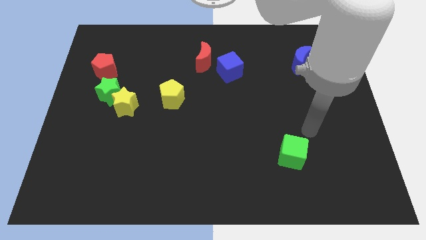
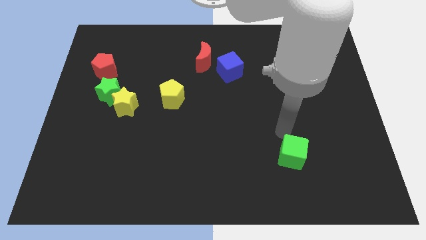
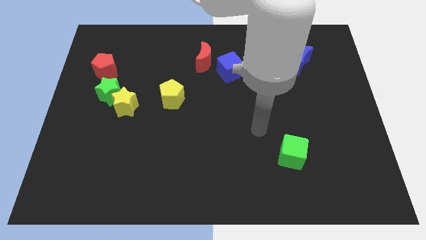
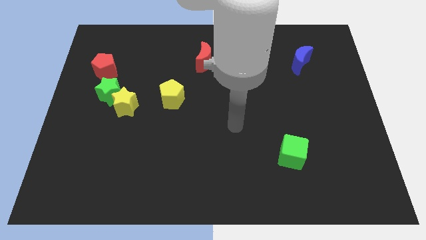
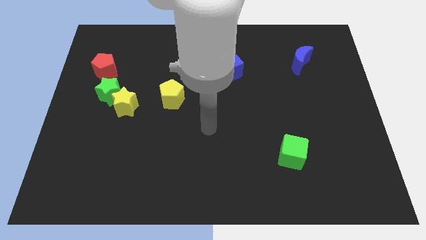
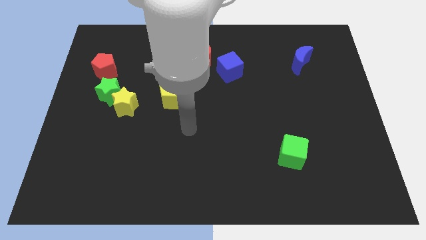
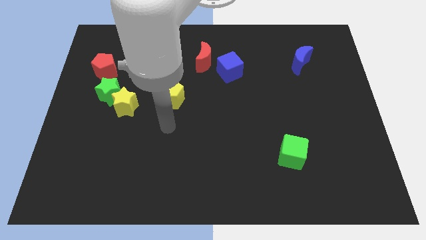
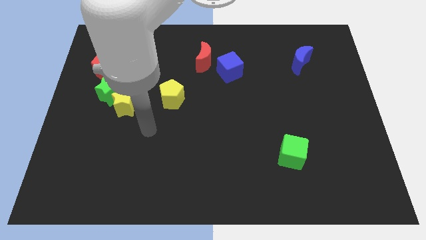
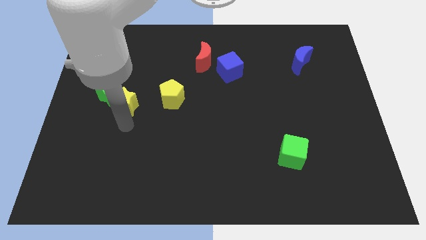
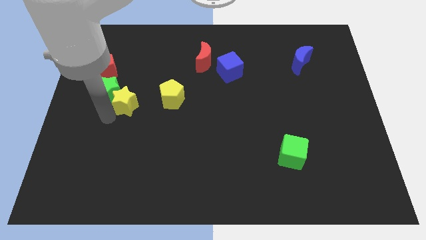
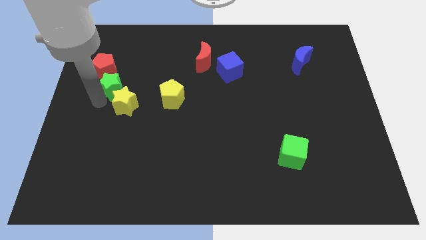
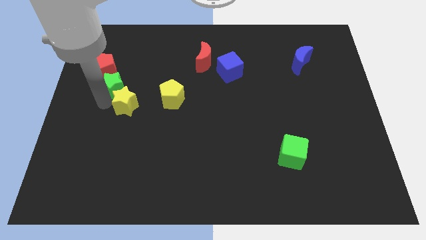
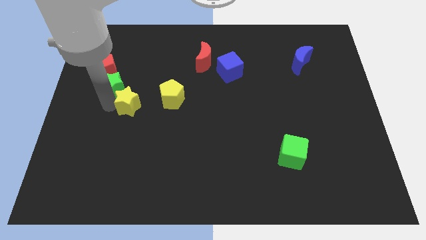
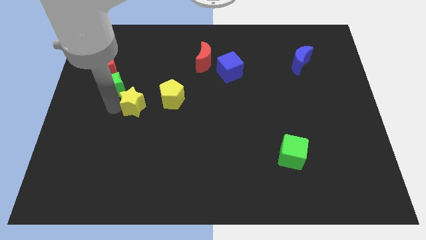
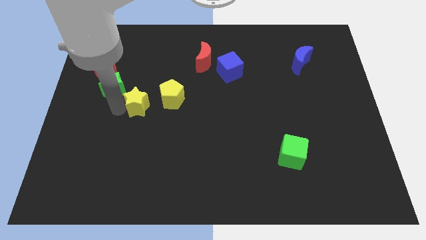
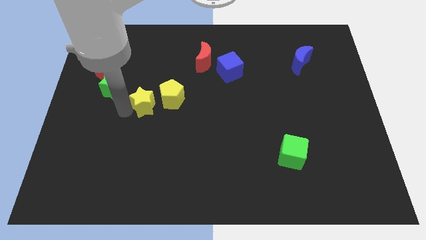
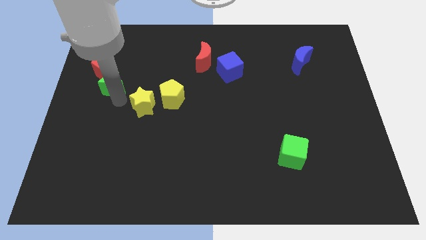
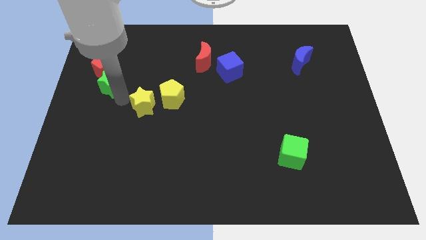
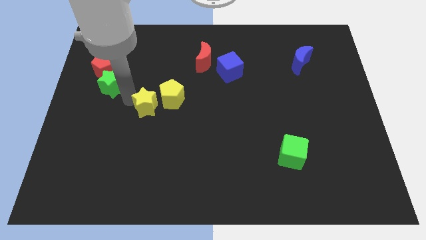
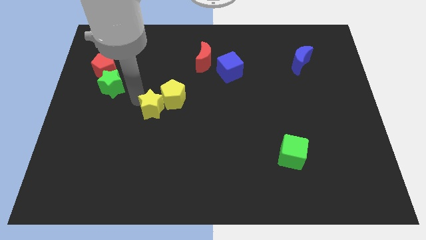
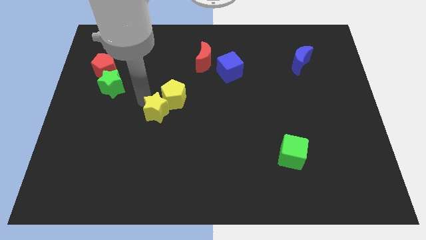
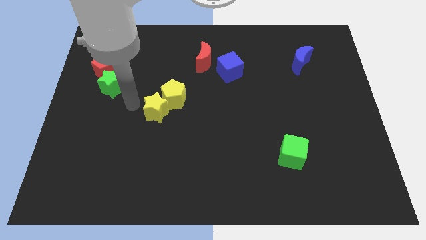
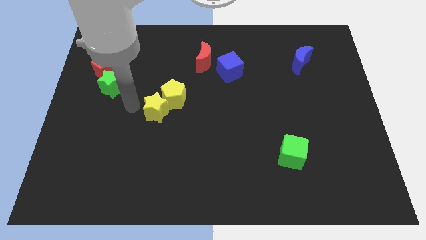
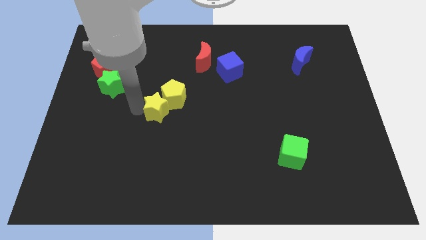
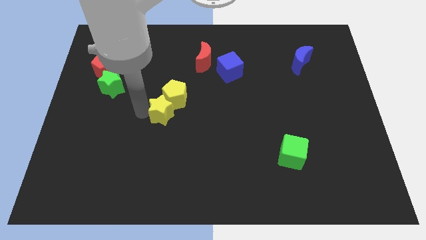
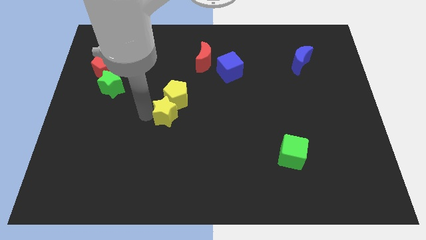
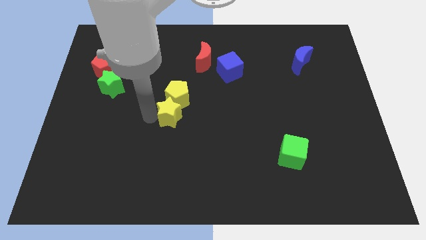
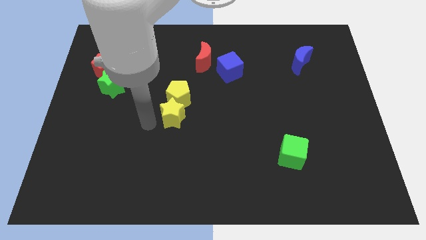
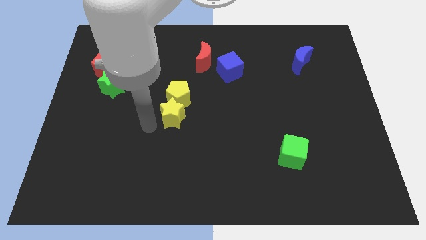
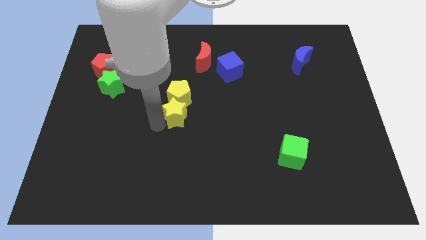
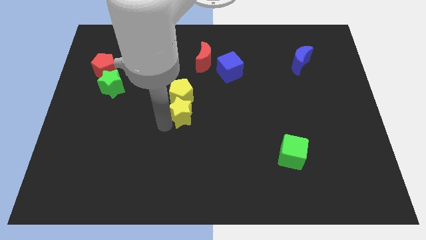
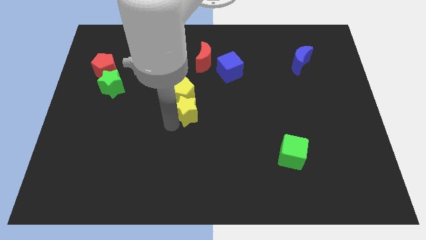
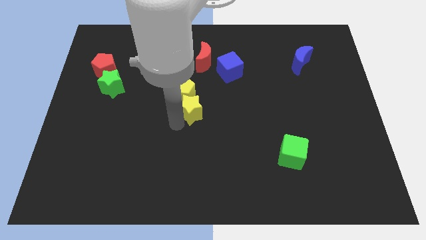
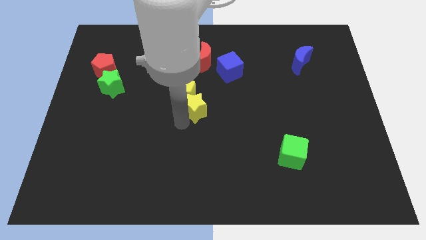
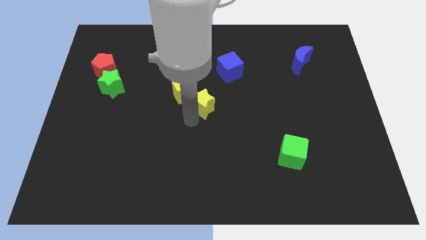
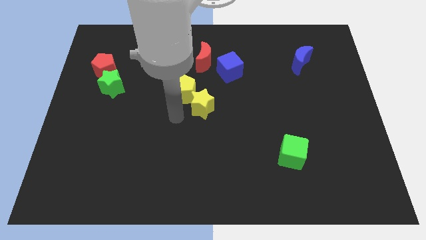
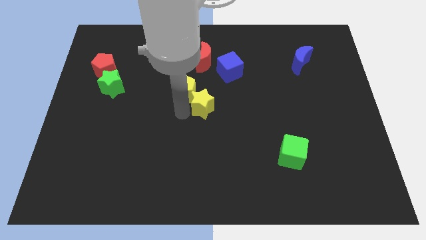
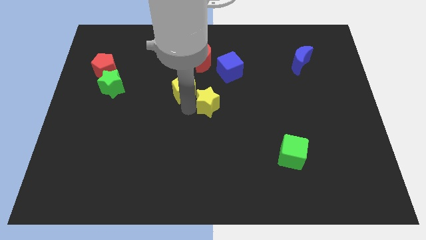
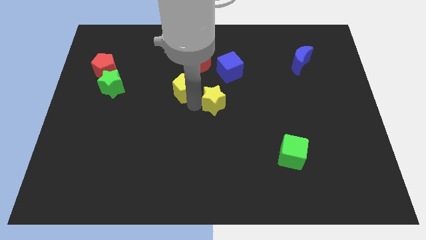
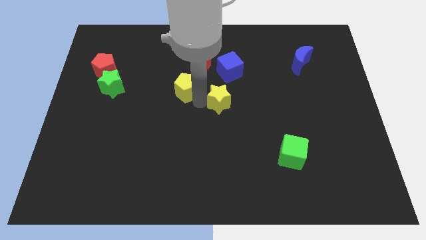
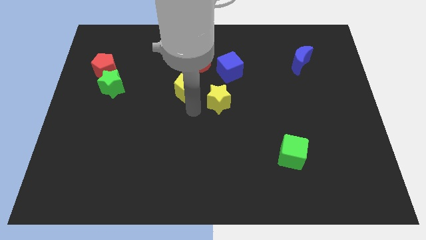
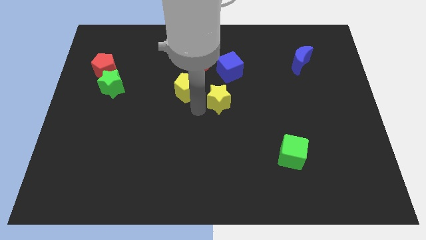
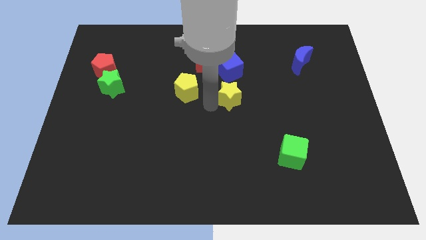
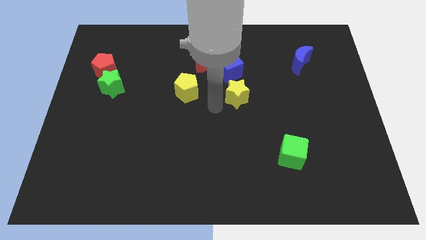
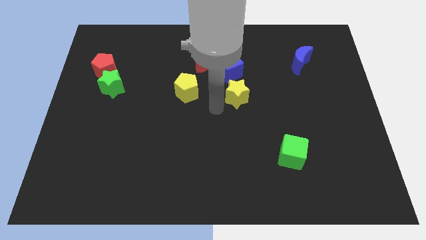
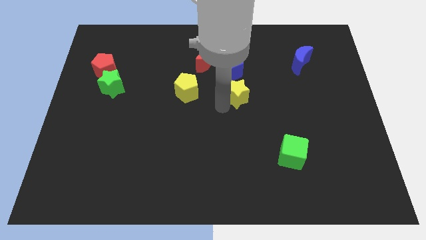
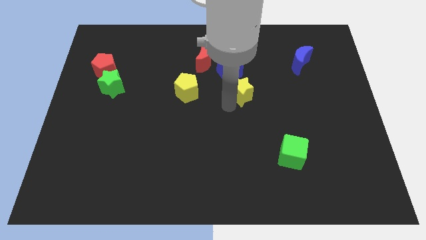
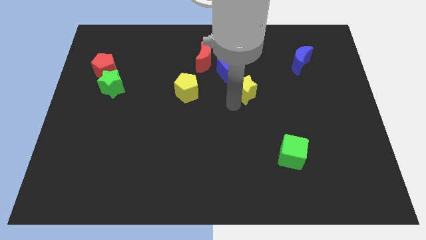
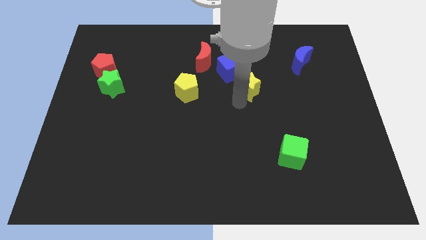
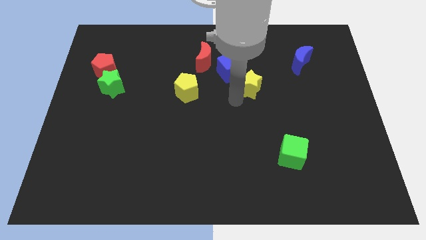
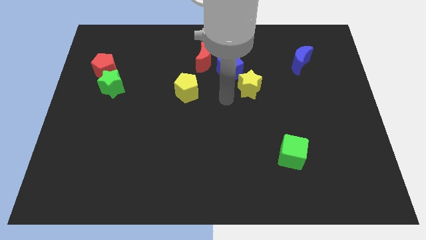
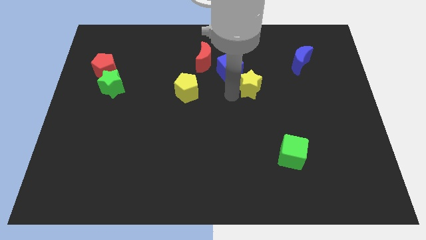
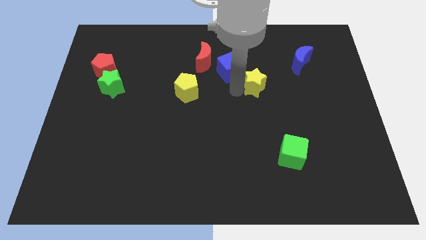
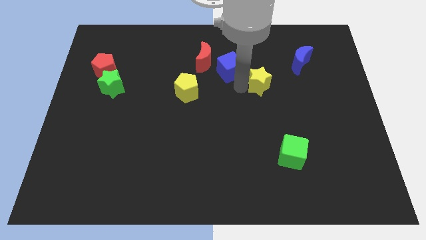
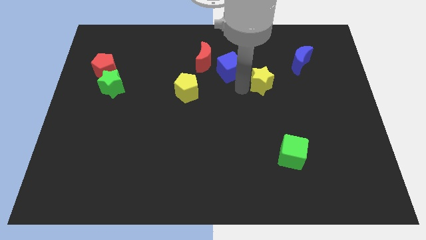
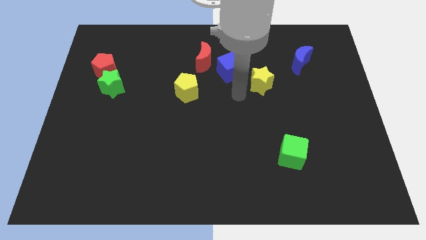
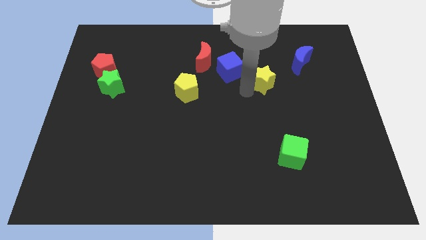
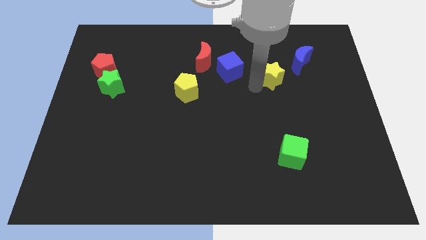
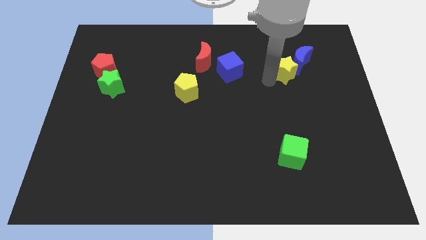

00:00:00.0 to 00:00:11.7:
slide the yellow star next to the blue moon

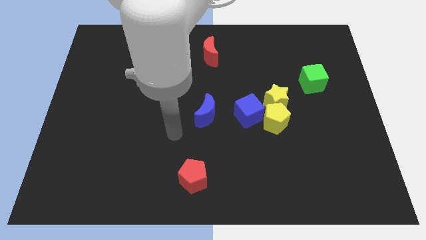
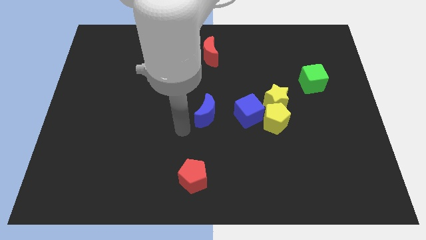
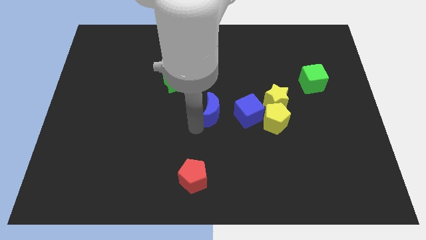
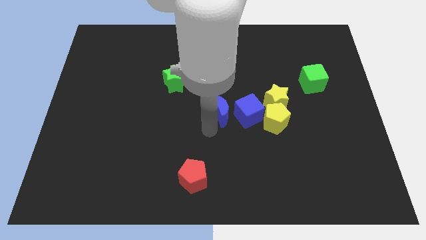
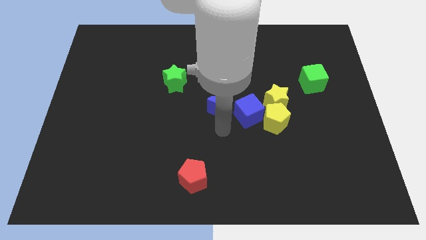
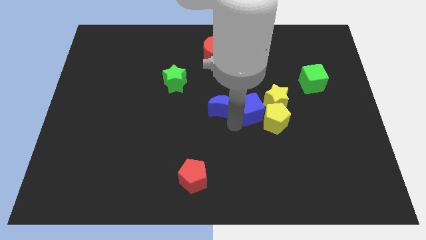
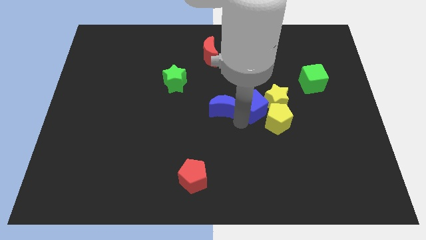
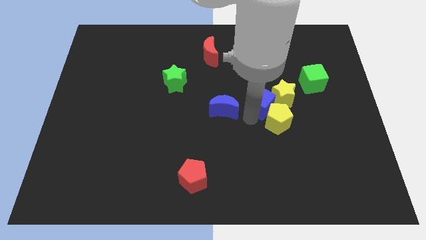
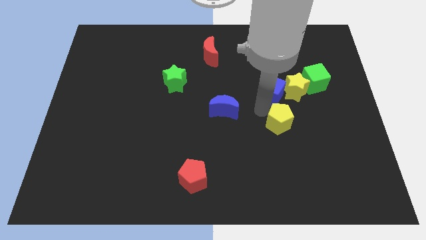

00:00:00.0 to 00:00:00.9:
push the yellow star towards the green cube
